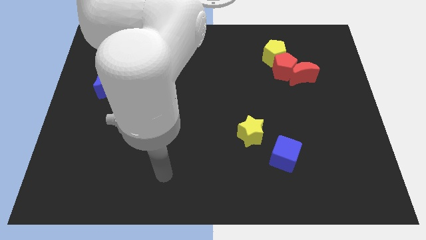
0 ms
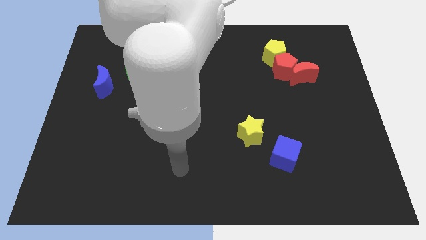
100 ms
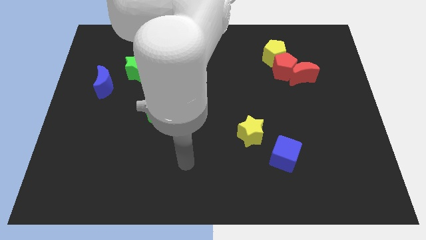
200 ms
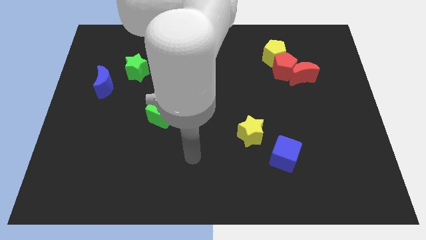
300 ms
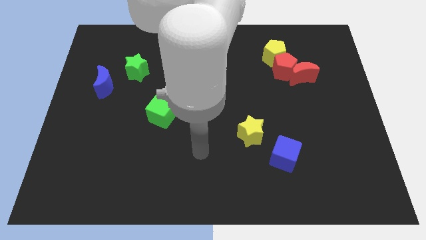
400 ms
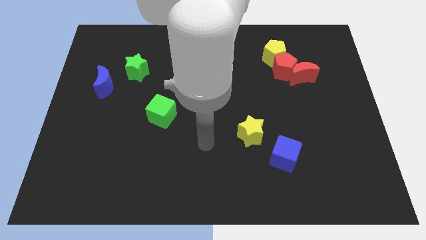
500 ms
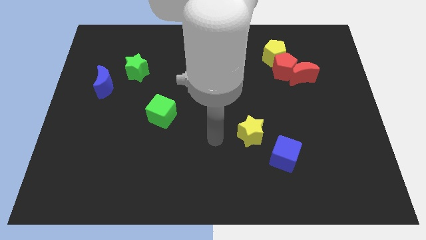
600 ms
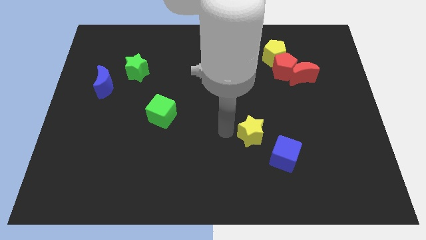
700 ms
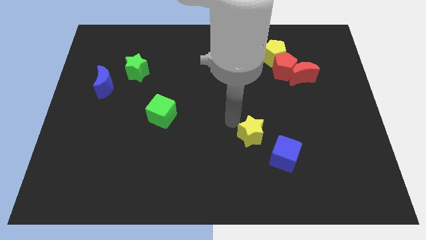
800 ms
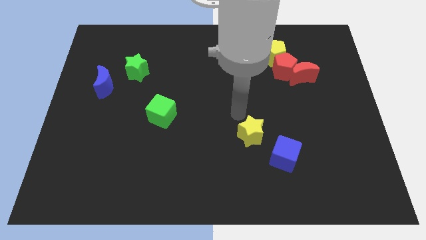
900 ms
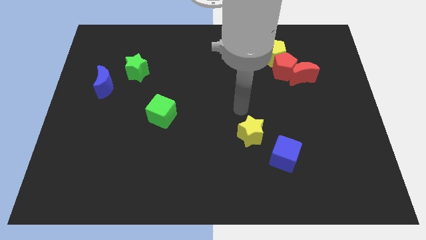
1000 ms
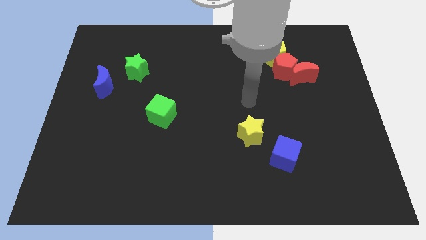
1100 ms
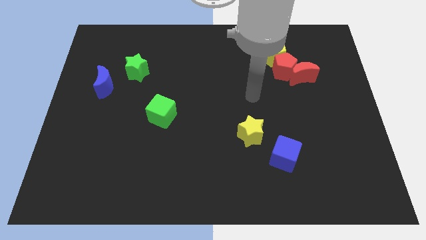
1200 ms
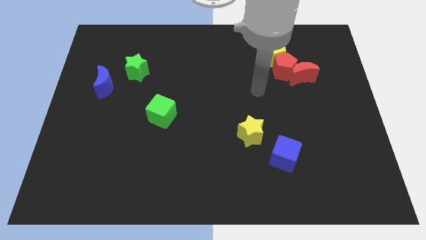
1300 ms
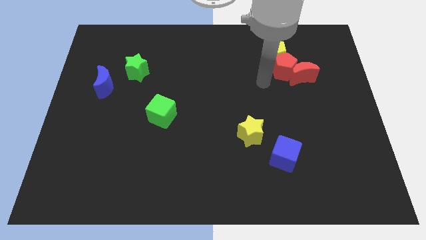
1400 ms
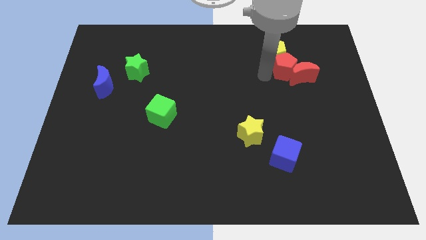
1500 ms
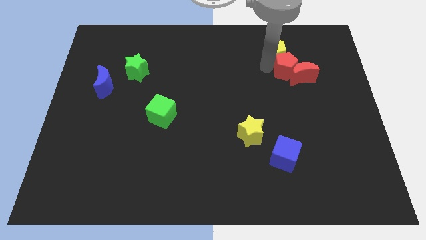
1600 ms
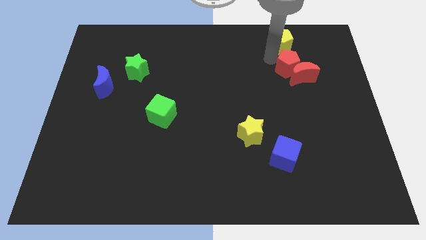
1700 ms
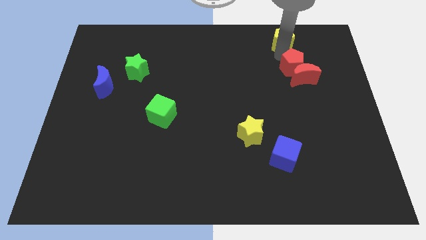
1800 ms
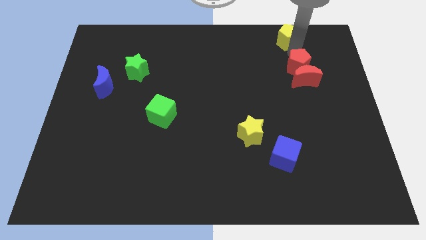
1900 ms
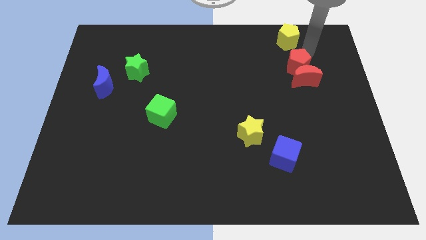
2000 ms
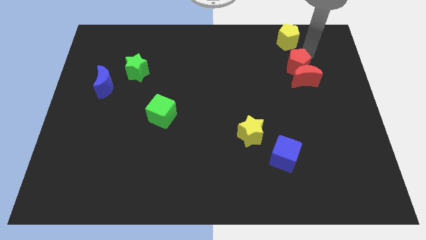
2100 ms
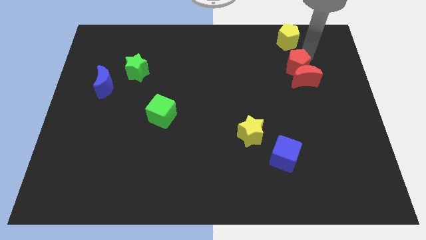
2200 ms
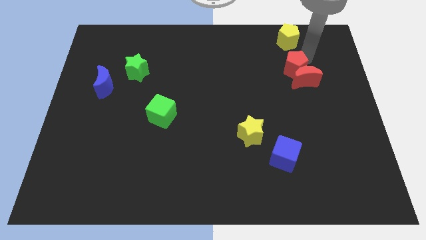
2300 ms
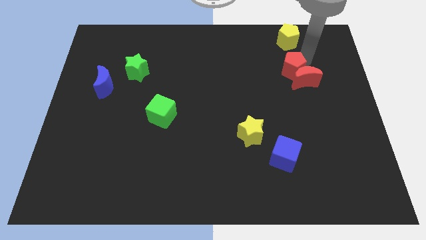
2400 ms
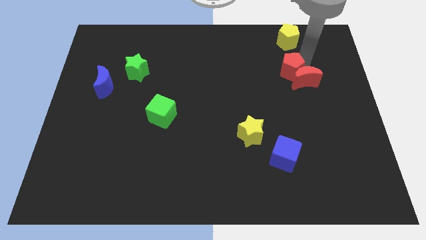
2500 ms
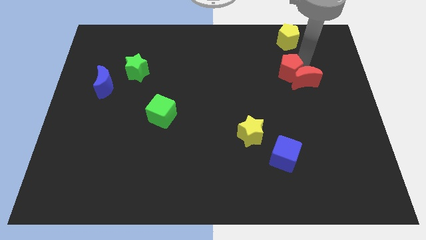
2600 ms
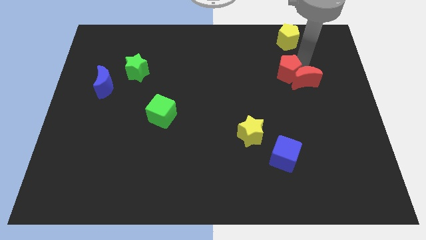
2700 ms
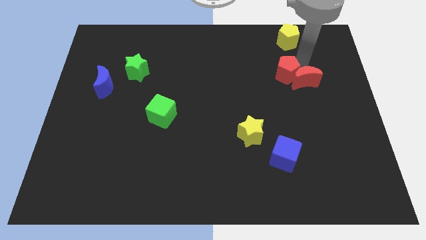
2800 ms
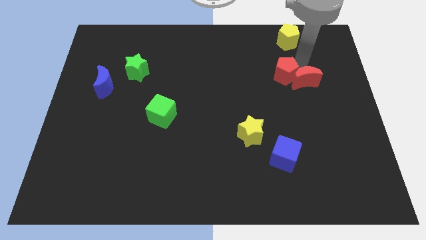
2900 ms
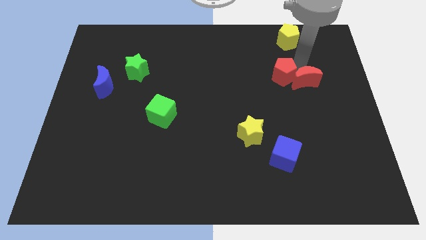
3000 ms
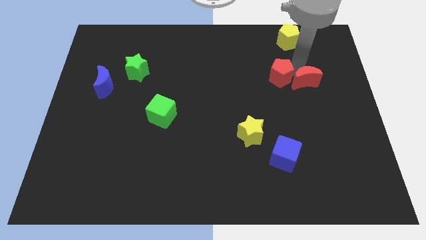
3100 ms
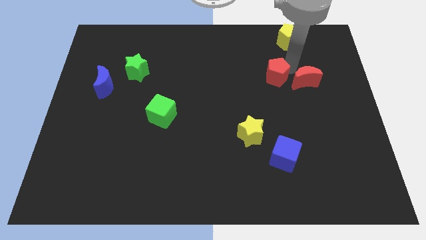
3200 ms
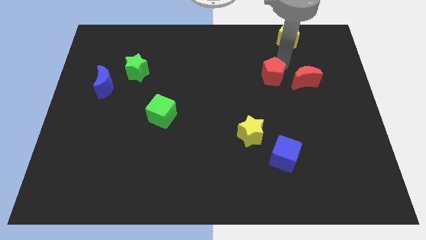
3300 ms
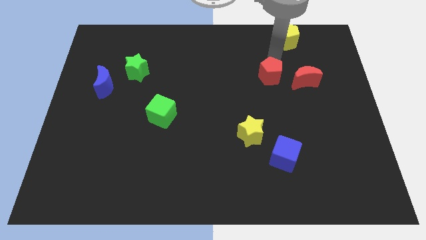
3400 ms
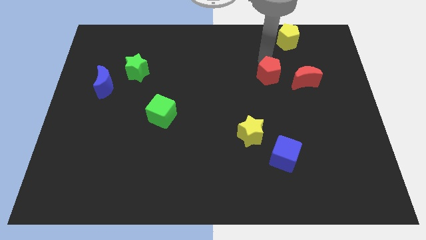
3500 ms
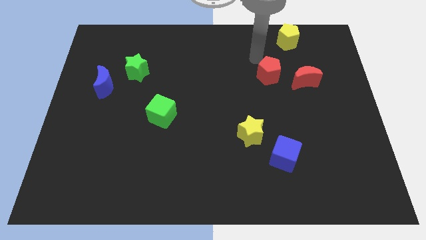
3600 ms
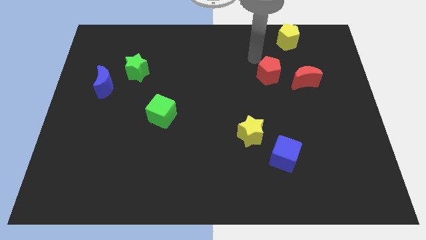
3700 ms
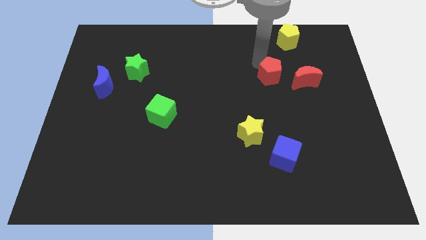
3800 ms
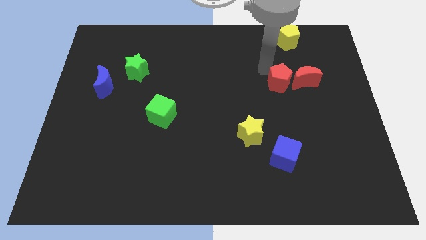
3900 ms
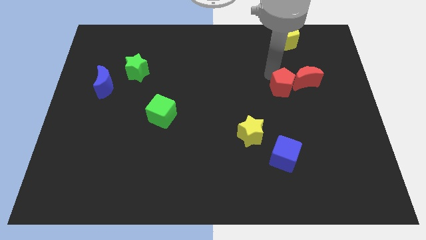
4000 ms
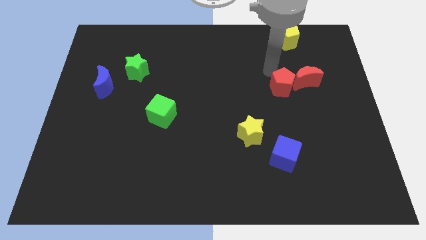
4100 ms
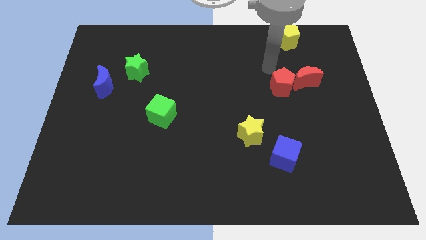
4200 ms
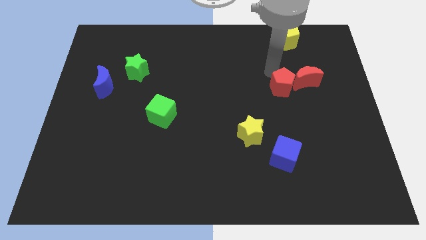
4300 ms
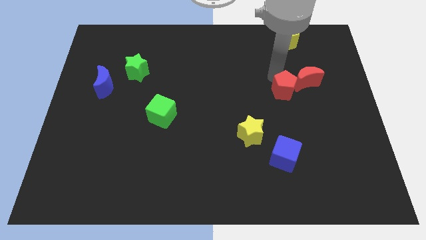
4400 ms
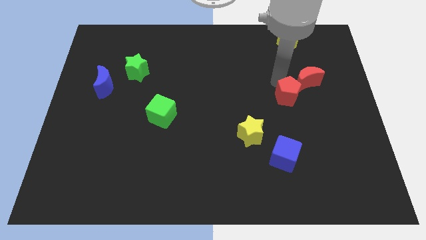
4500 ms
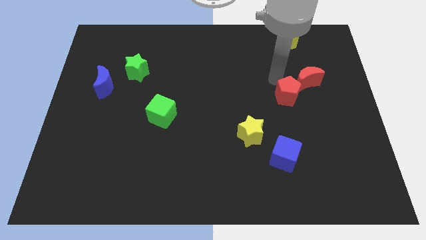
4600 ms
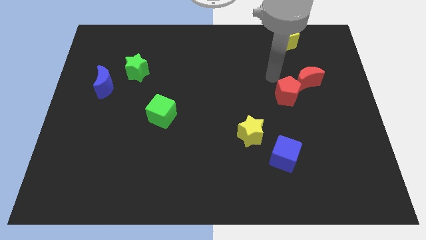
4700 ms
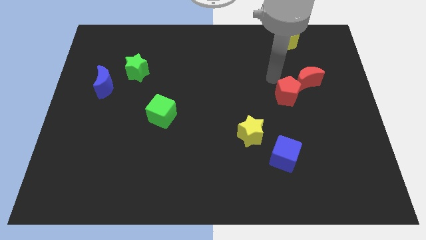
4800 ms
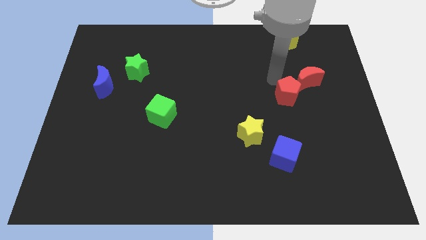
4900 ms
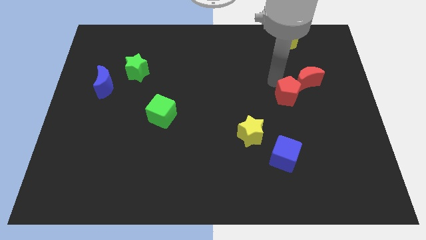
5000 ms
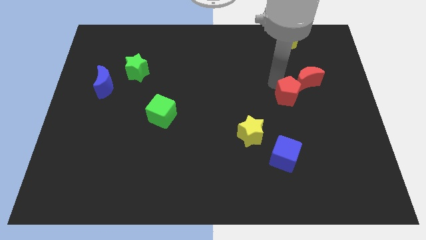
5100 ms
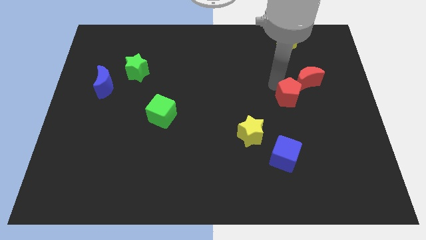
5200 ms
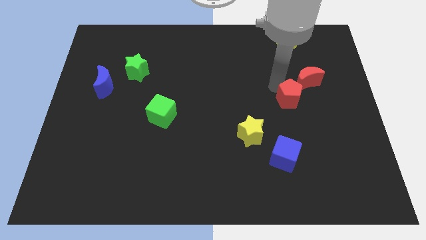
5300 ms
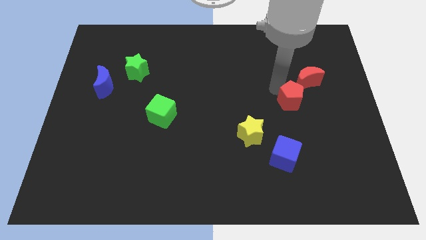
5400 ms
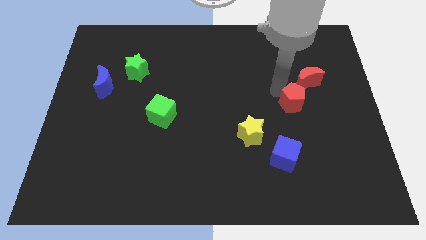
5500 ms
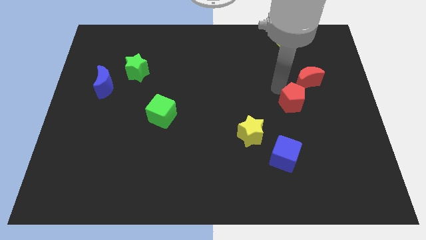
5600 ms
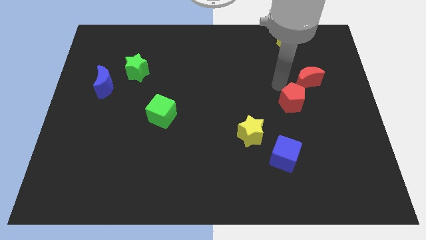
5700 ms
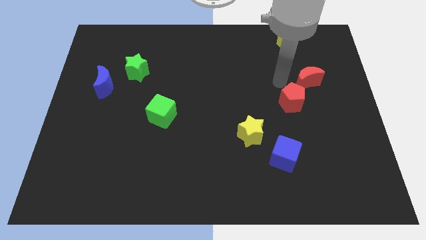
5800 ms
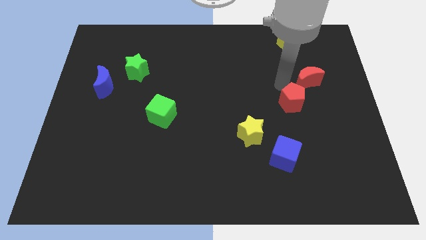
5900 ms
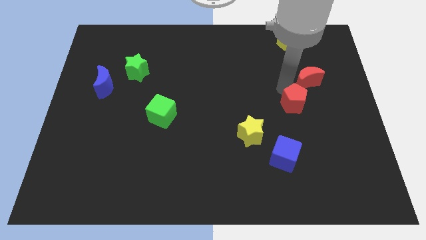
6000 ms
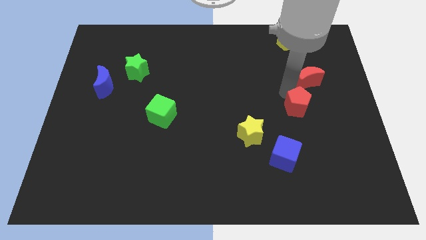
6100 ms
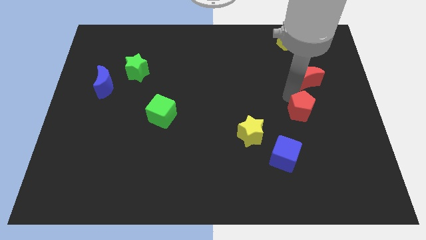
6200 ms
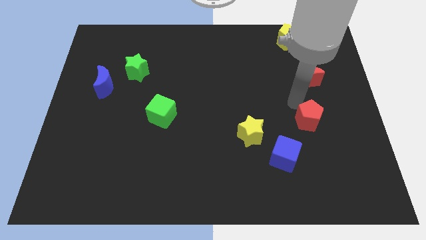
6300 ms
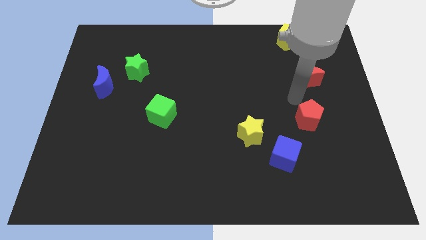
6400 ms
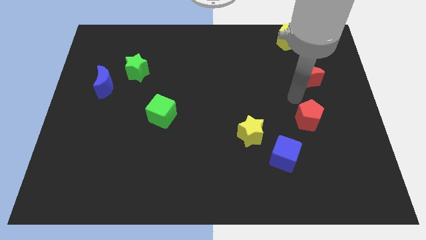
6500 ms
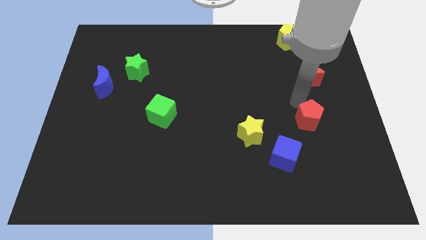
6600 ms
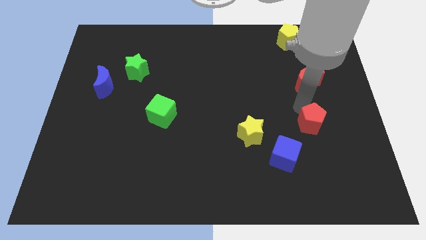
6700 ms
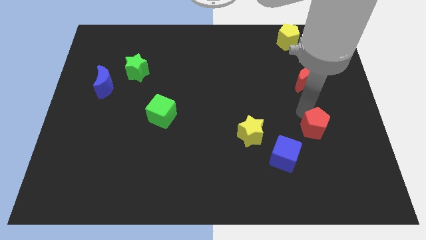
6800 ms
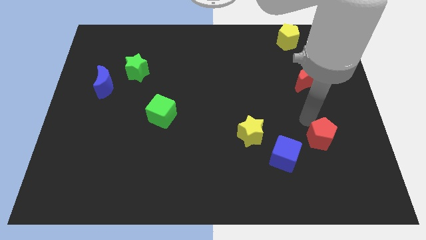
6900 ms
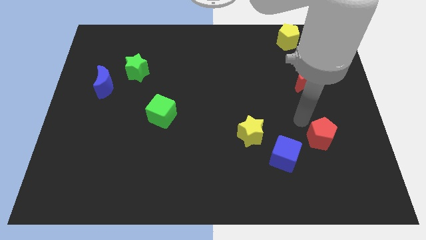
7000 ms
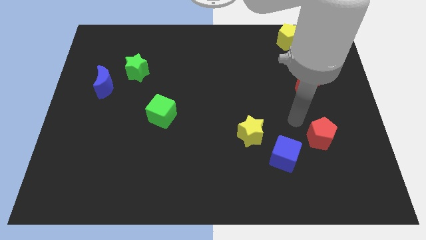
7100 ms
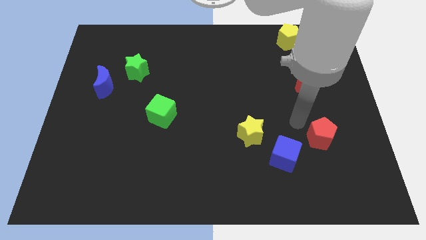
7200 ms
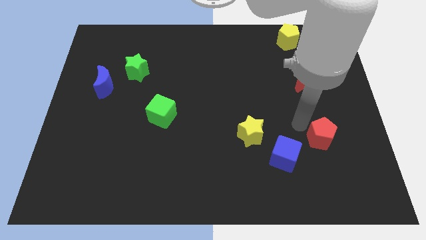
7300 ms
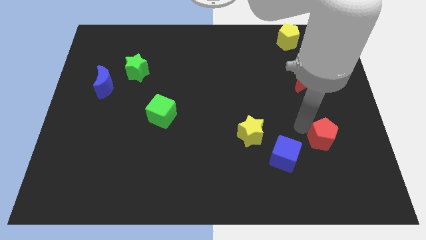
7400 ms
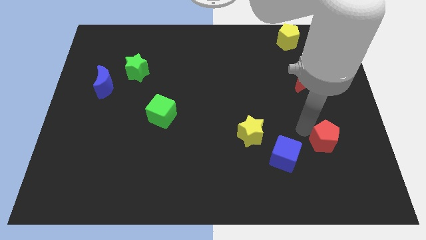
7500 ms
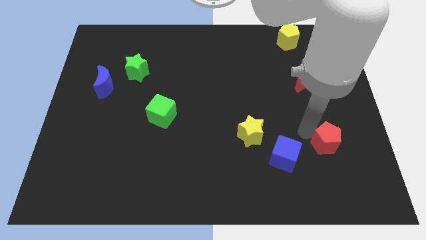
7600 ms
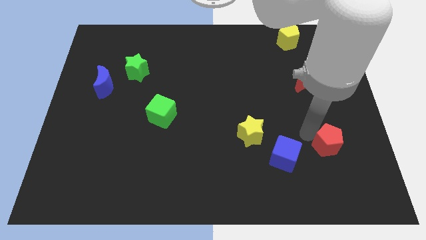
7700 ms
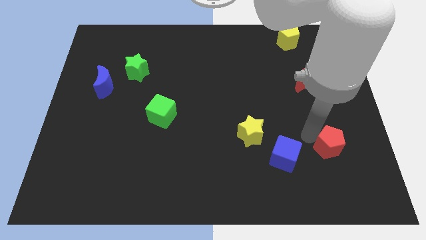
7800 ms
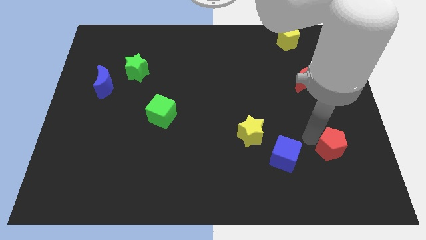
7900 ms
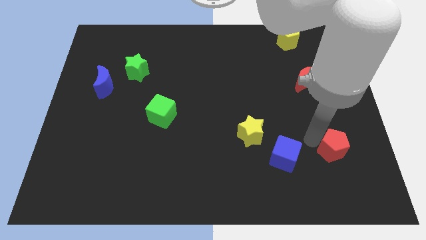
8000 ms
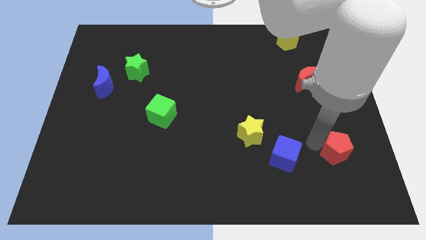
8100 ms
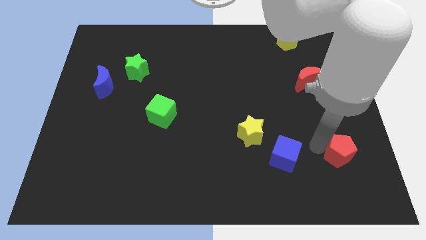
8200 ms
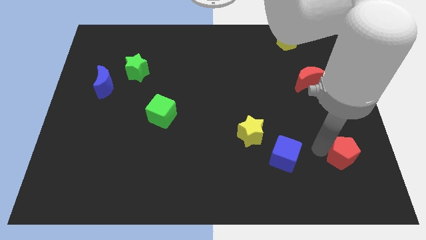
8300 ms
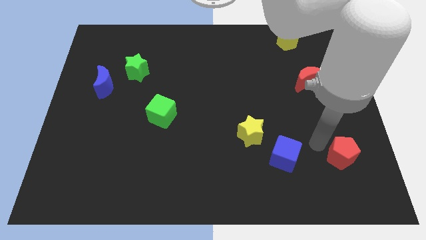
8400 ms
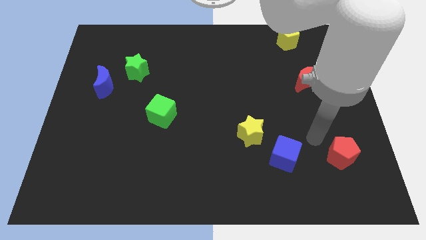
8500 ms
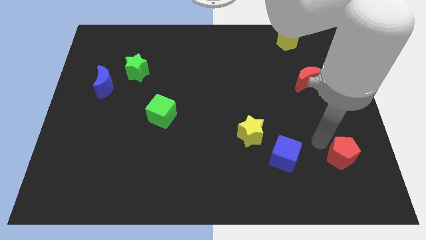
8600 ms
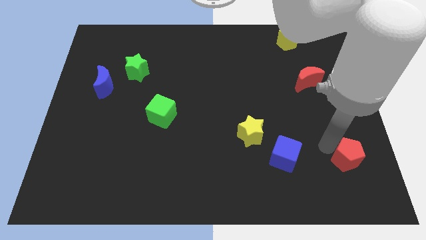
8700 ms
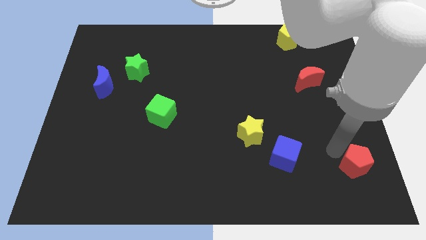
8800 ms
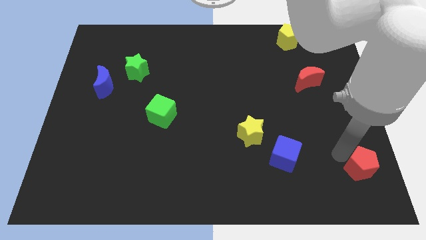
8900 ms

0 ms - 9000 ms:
put the red pentagon to the bottom right corner
